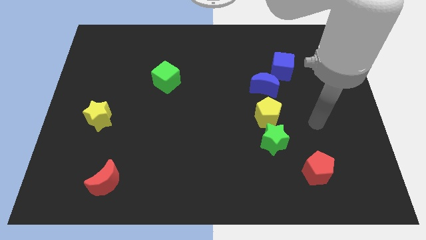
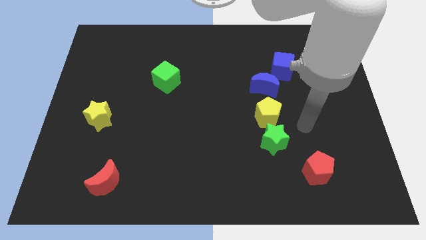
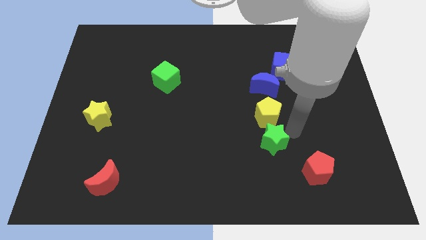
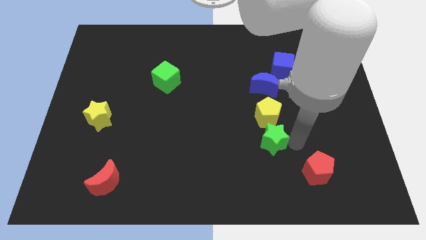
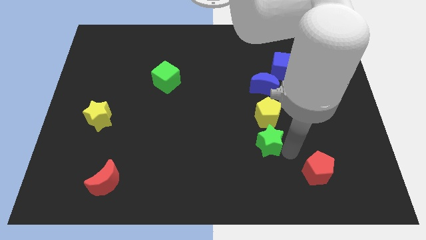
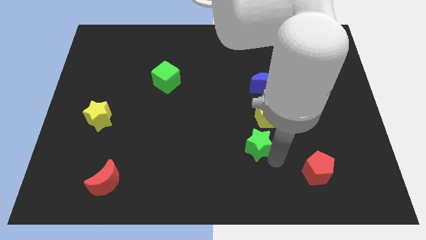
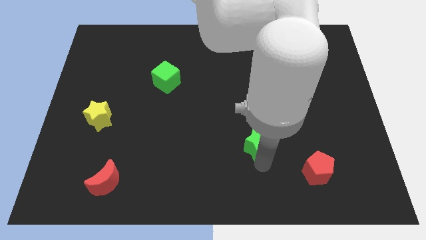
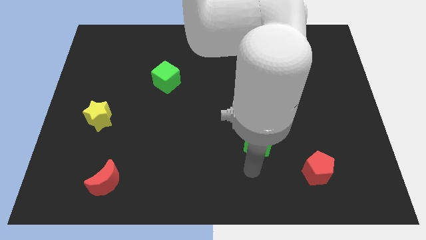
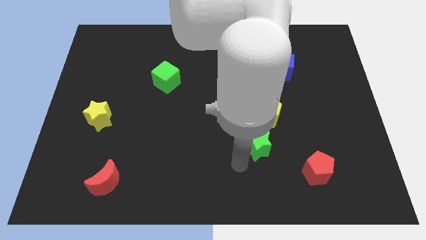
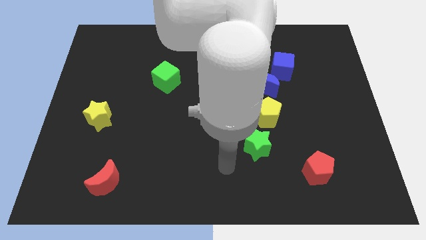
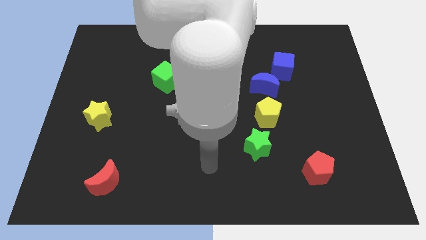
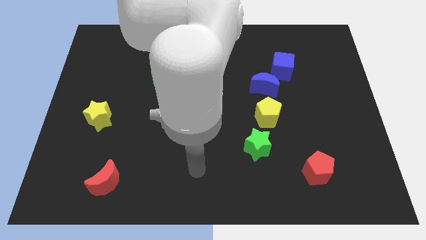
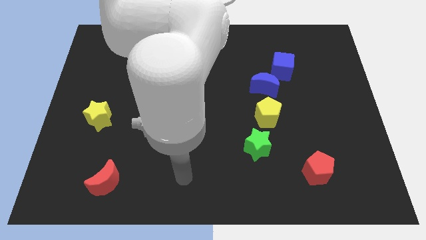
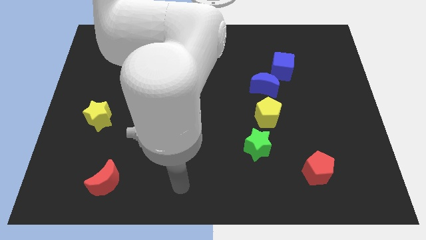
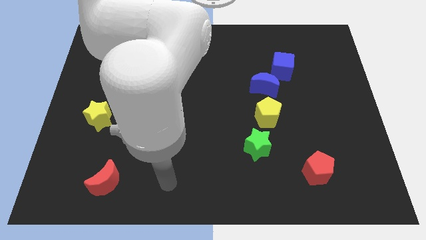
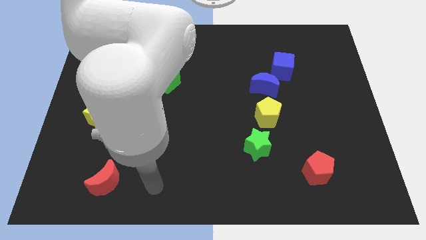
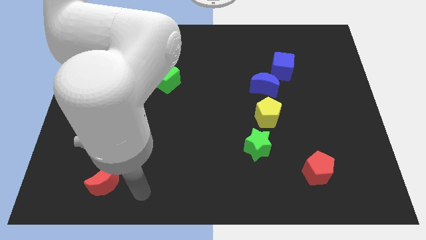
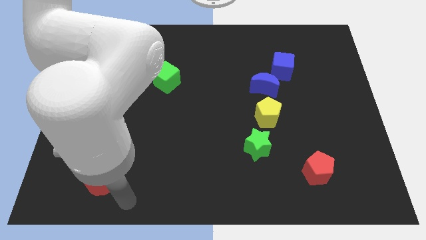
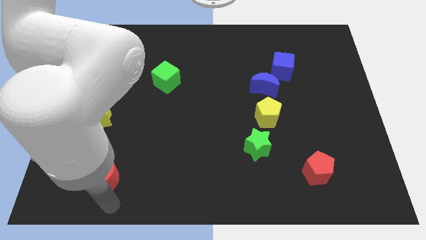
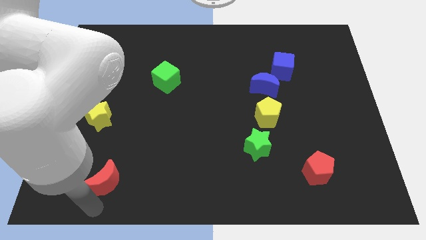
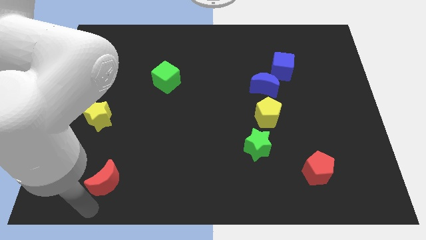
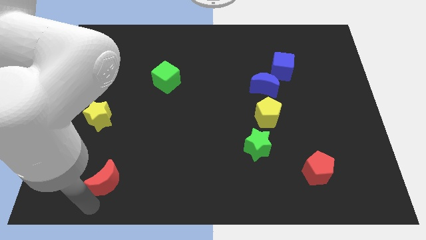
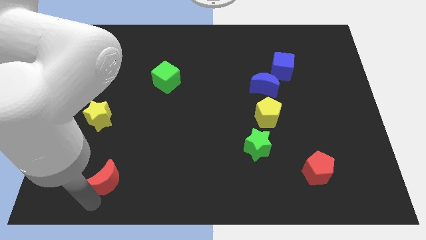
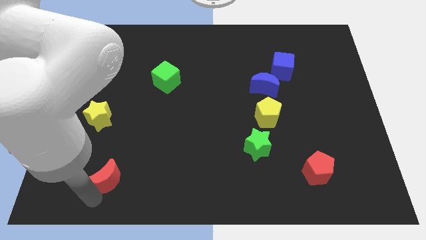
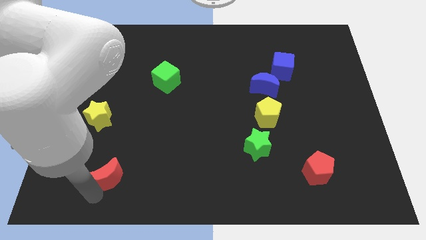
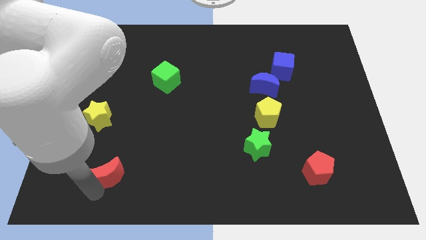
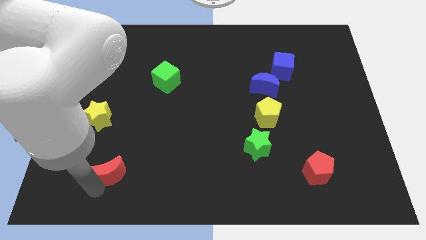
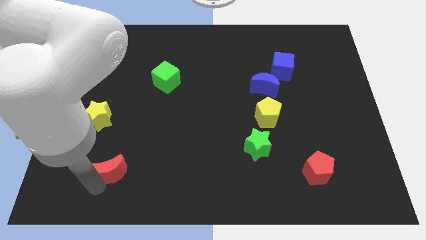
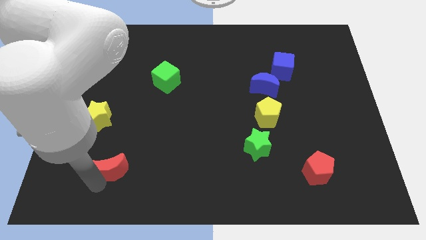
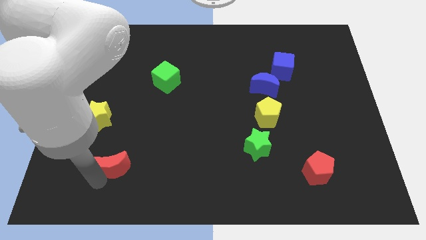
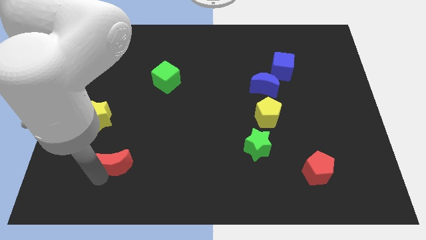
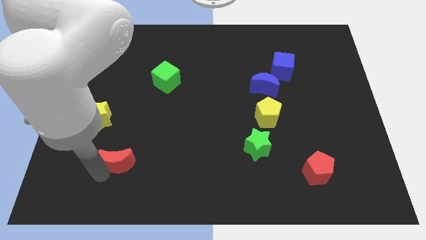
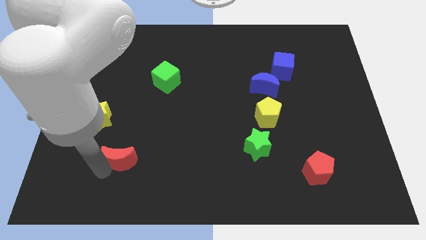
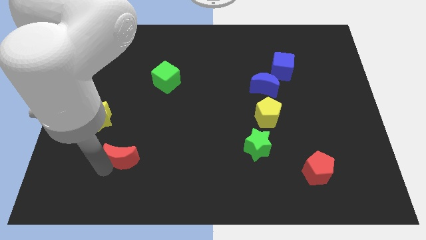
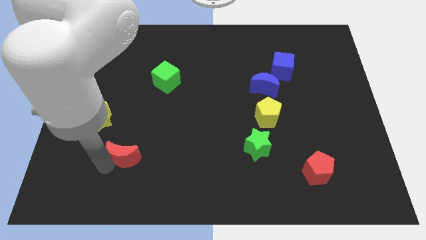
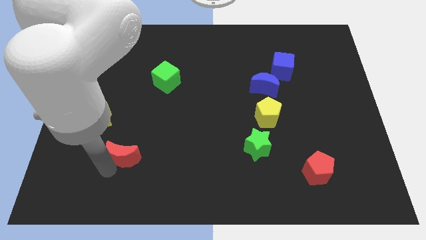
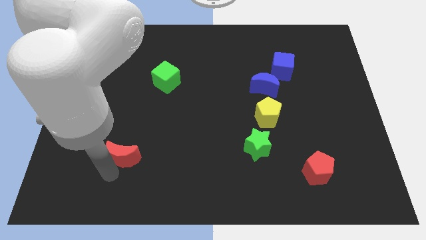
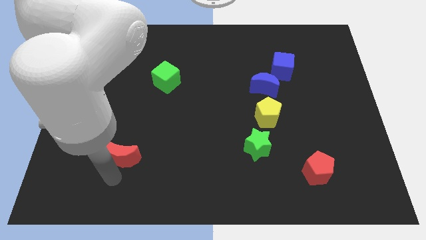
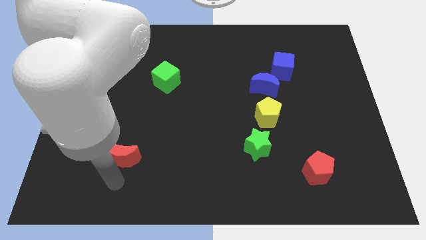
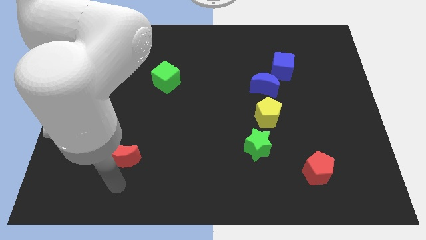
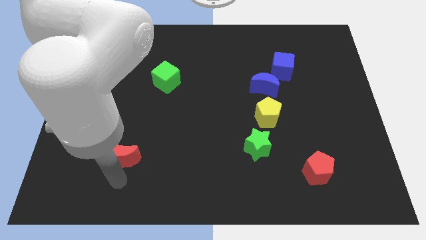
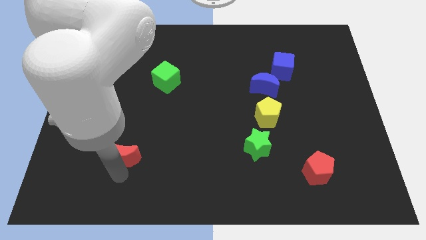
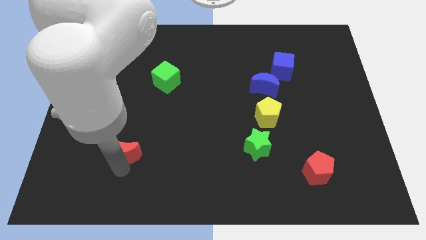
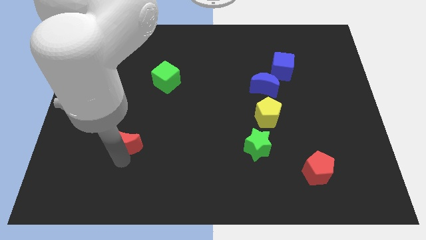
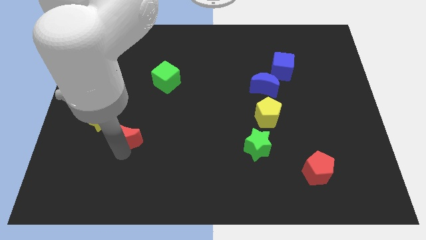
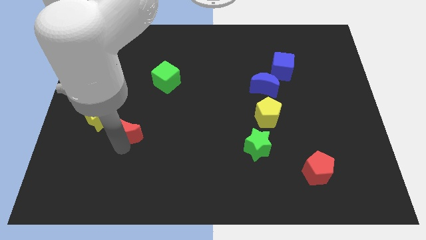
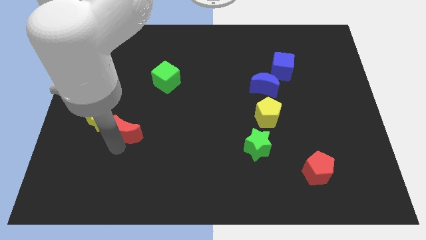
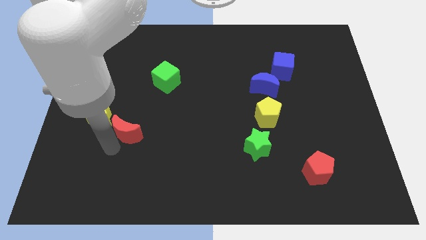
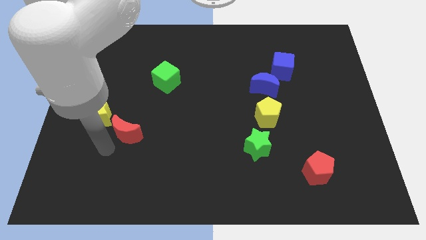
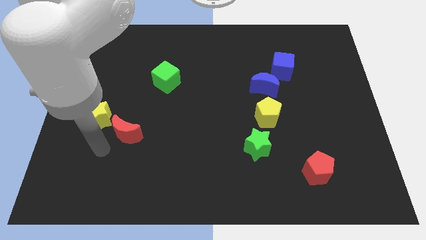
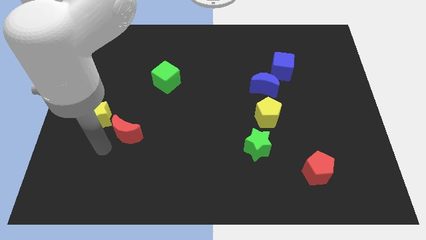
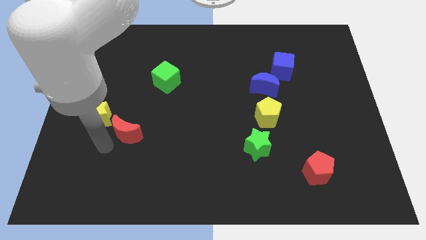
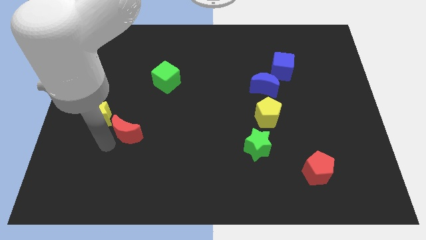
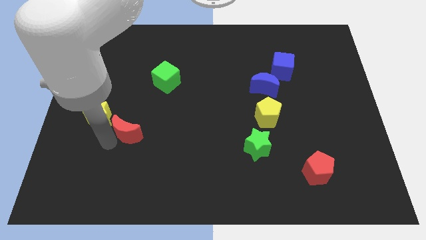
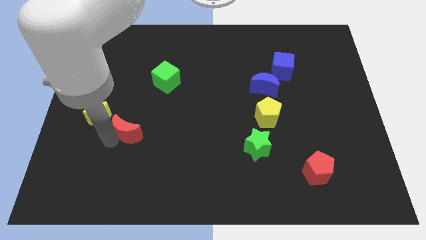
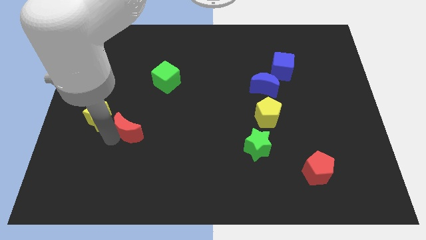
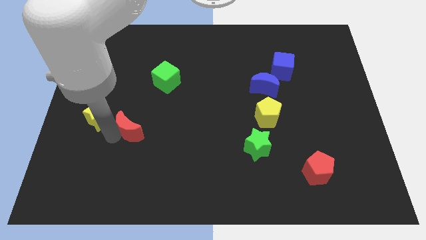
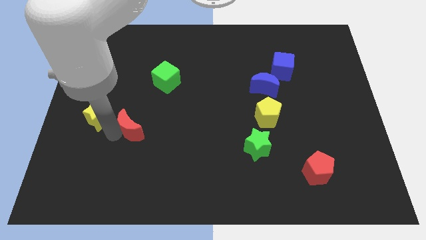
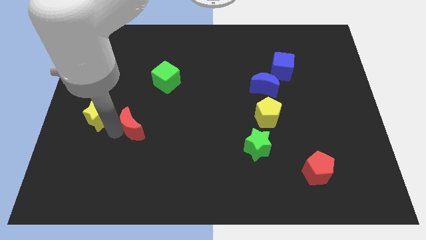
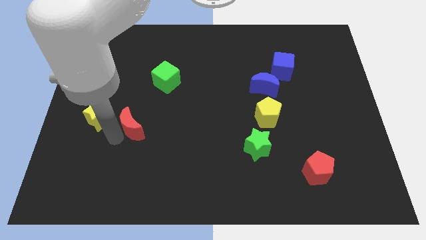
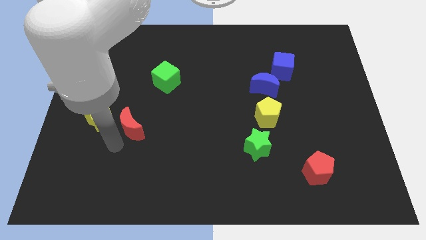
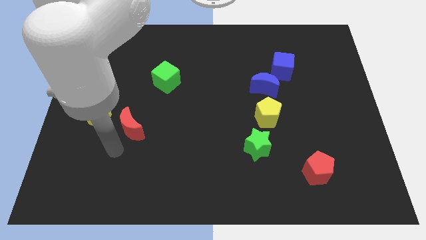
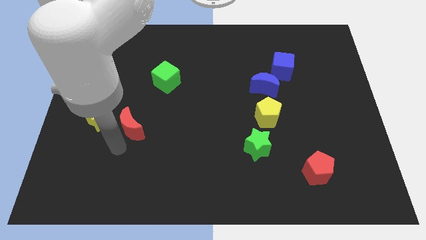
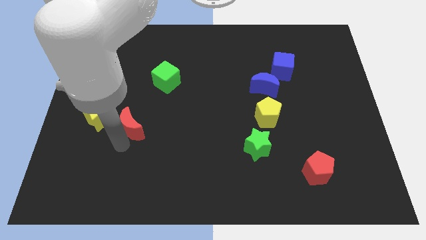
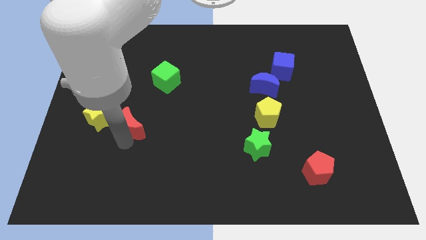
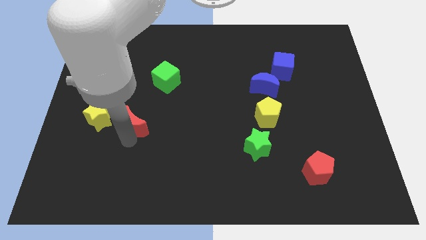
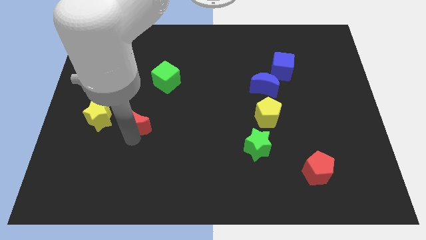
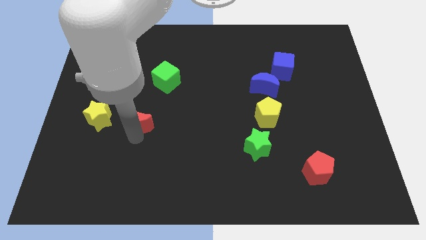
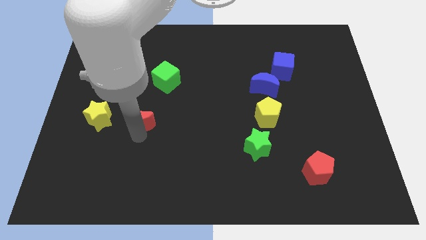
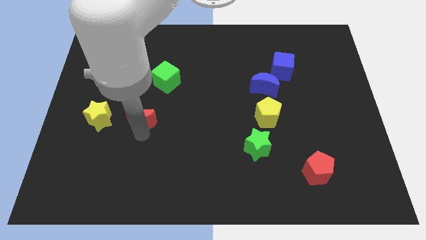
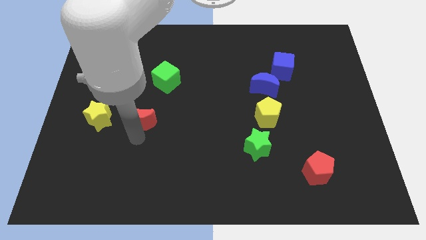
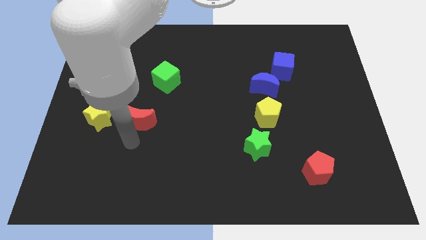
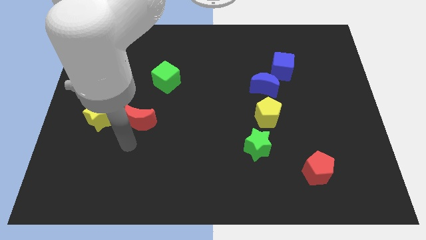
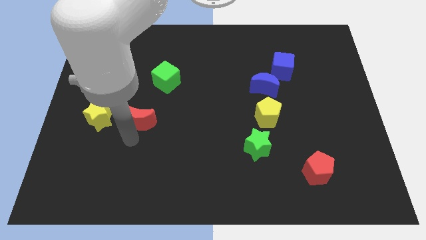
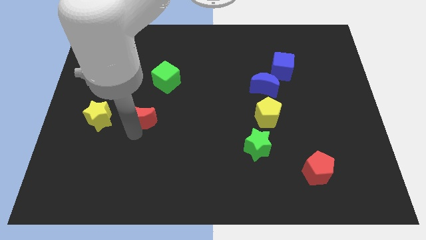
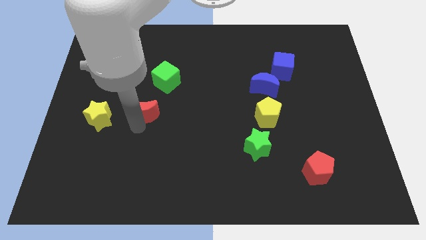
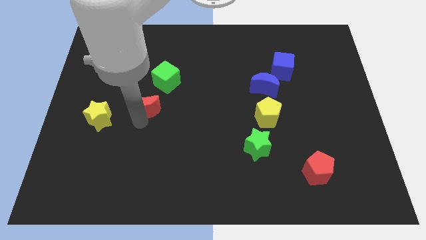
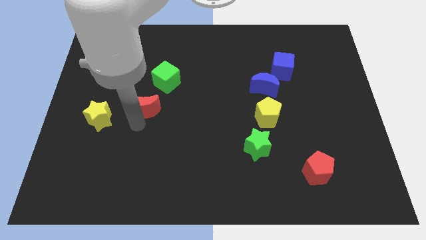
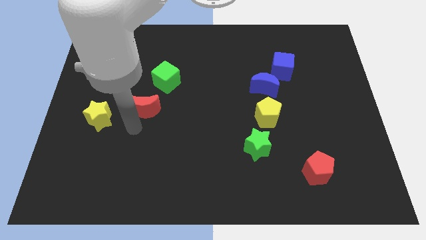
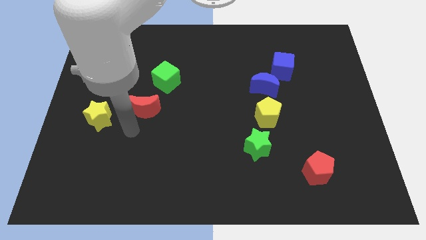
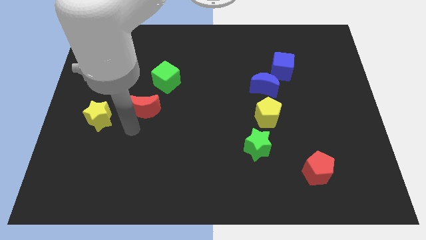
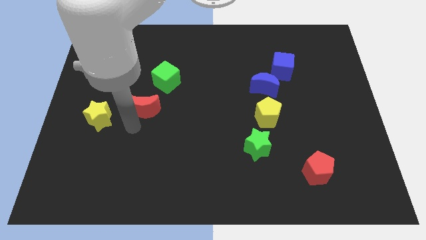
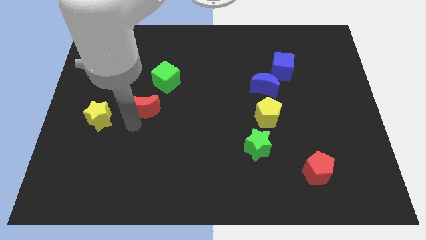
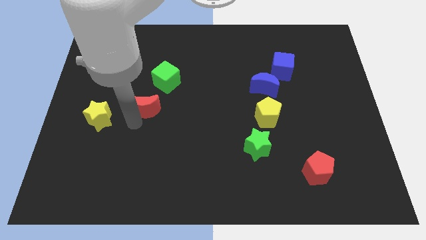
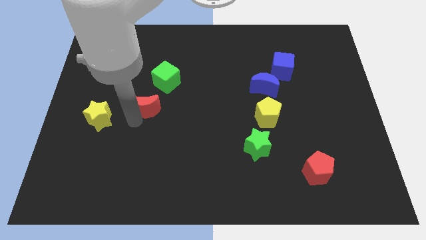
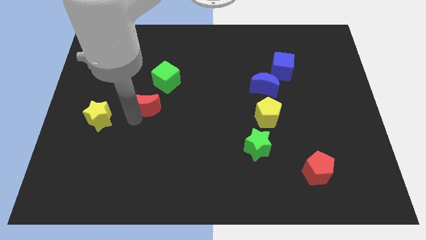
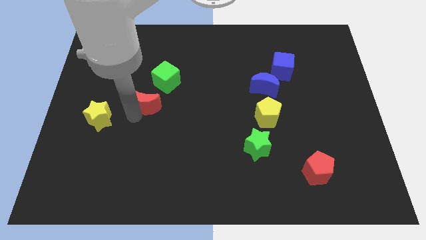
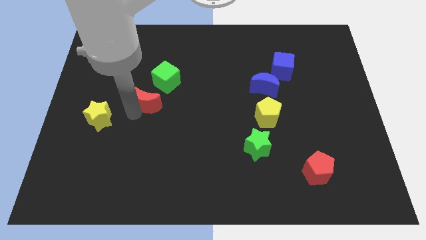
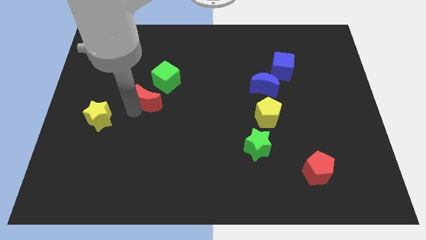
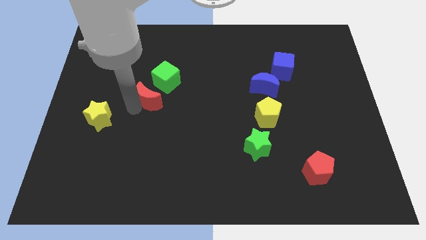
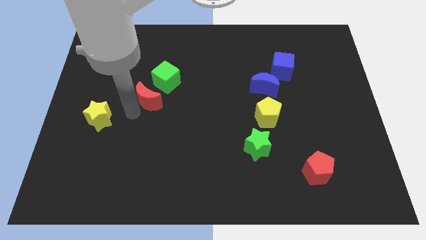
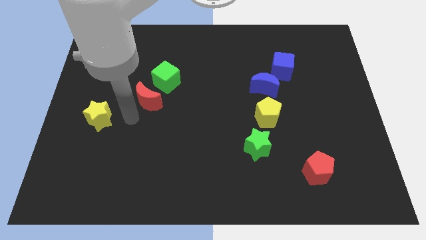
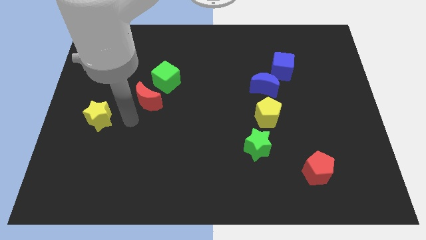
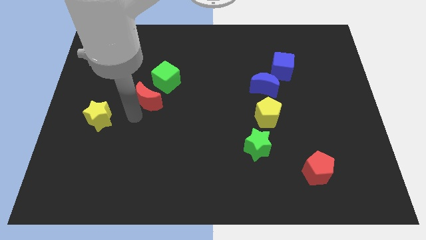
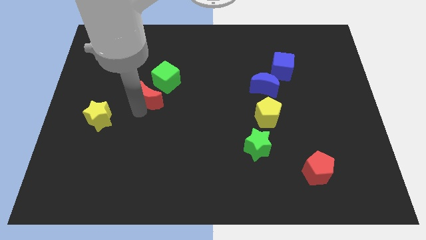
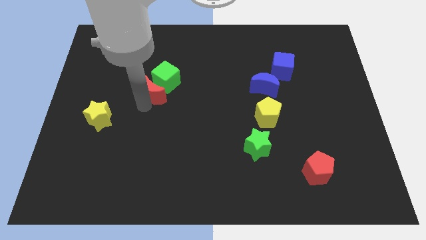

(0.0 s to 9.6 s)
push the red moon close to the green cube
